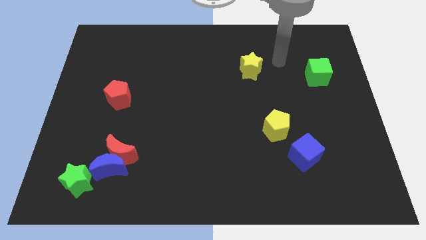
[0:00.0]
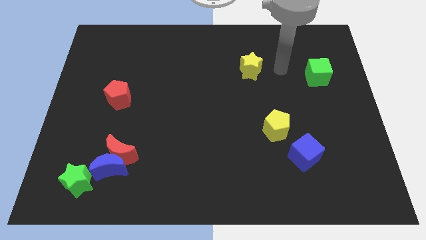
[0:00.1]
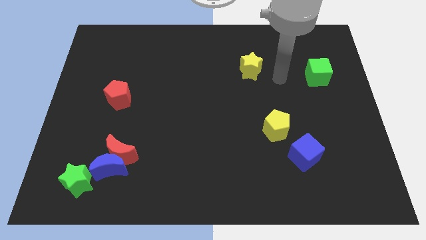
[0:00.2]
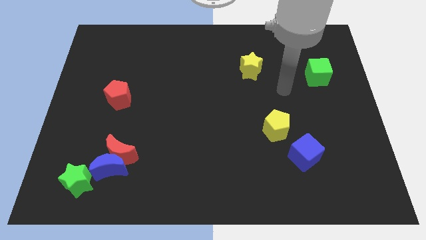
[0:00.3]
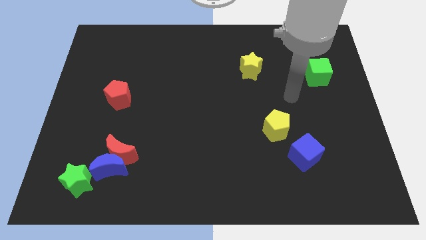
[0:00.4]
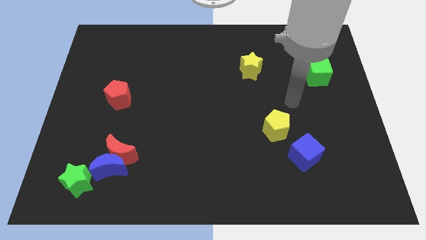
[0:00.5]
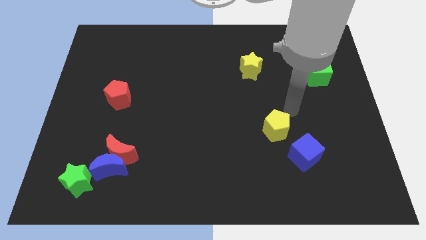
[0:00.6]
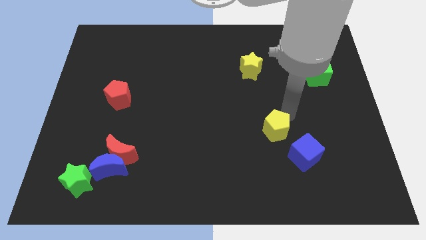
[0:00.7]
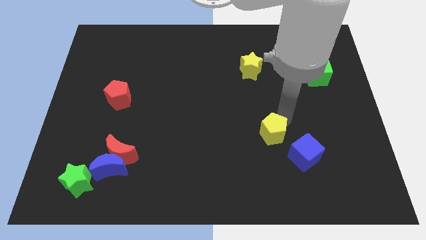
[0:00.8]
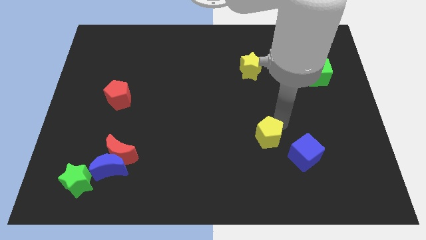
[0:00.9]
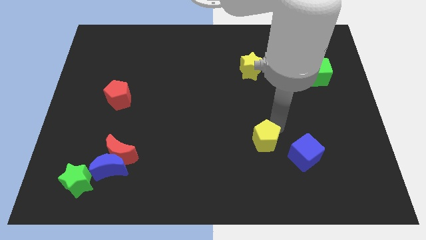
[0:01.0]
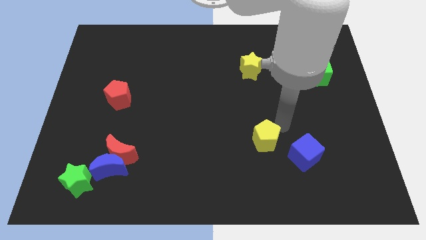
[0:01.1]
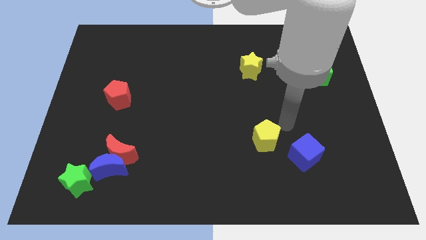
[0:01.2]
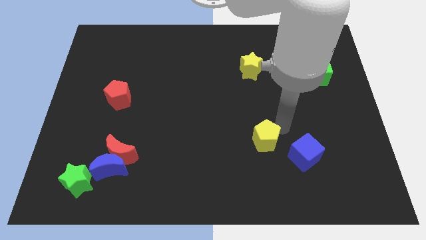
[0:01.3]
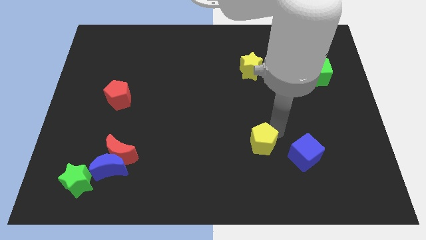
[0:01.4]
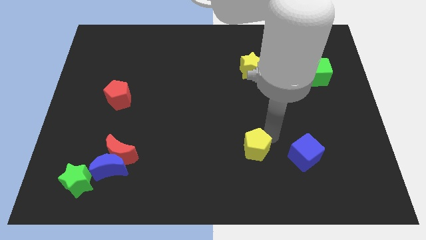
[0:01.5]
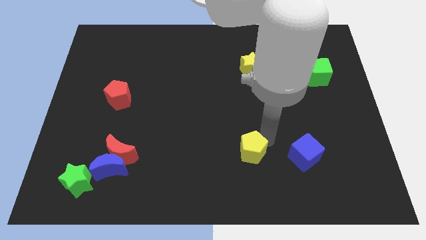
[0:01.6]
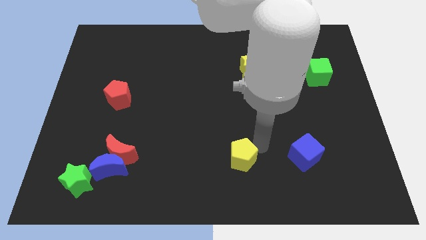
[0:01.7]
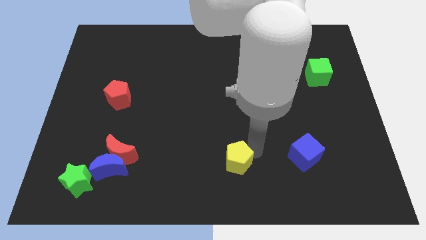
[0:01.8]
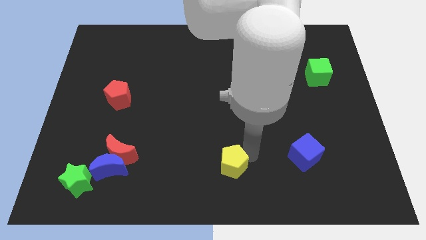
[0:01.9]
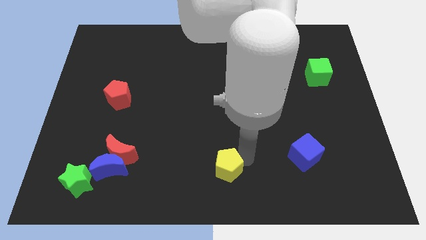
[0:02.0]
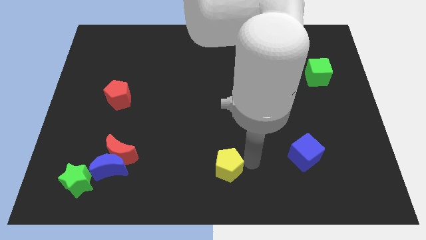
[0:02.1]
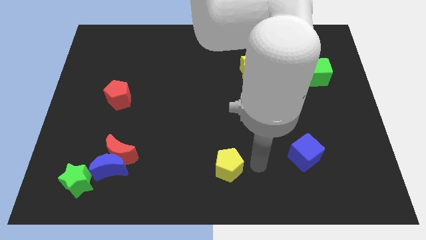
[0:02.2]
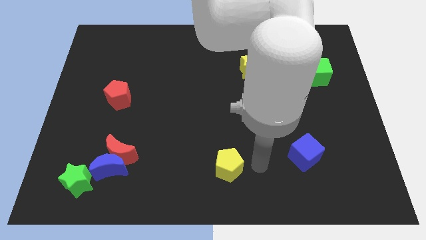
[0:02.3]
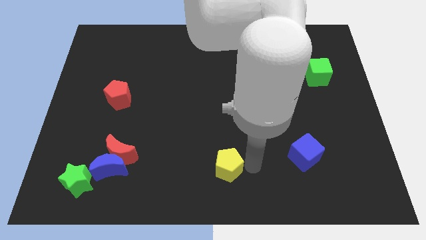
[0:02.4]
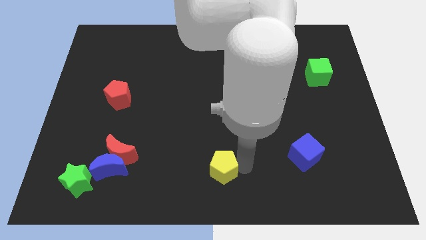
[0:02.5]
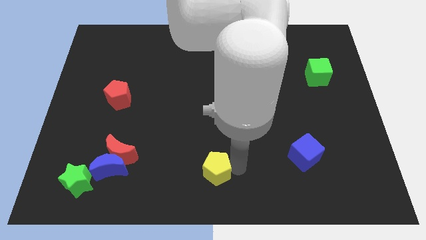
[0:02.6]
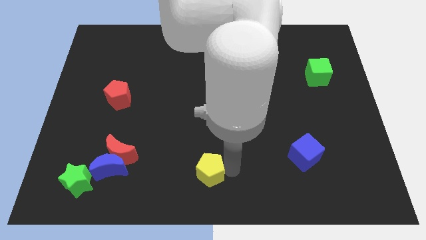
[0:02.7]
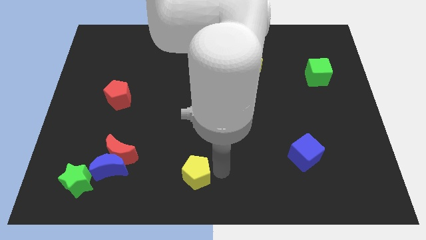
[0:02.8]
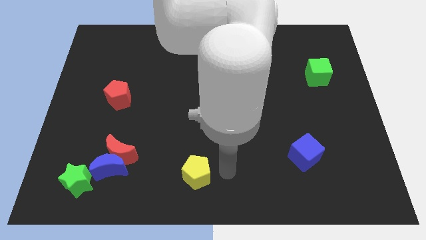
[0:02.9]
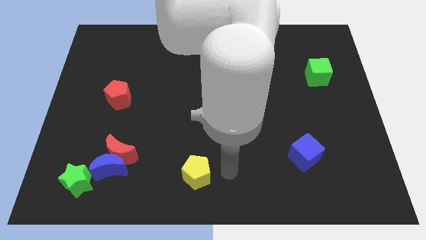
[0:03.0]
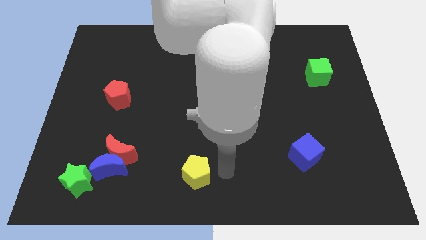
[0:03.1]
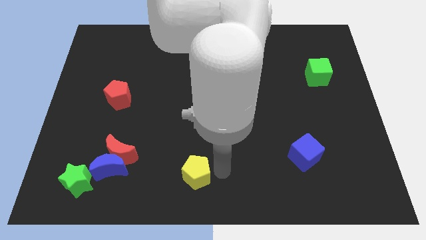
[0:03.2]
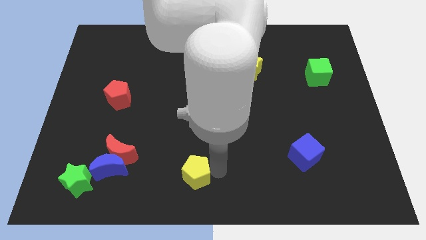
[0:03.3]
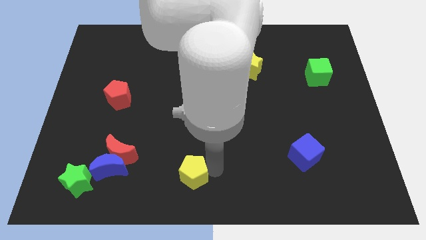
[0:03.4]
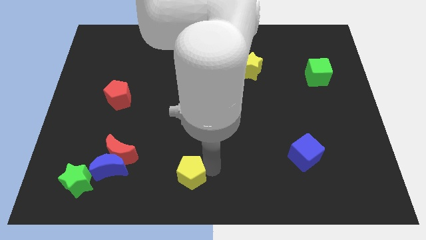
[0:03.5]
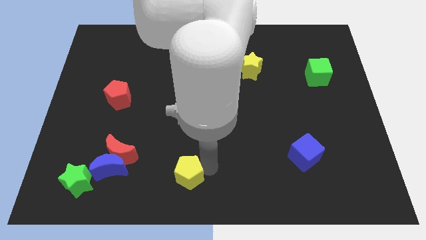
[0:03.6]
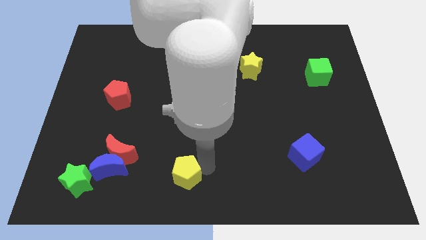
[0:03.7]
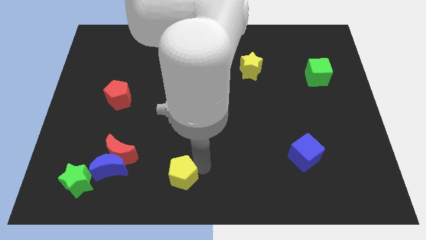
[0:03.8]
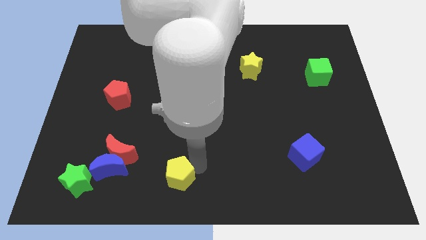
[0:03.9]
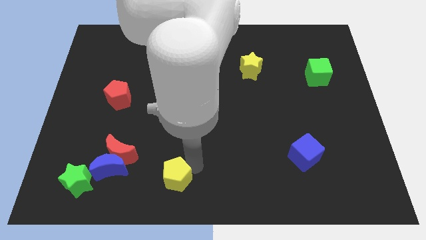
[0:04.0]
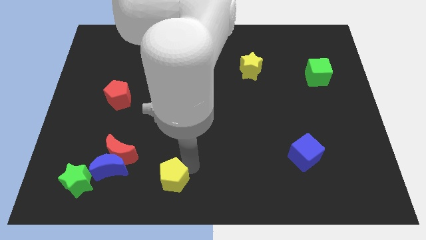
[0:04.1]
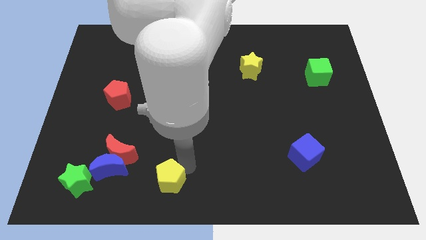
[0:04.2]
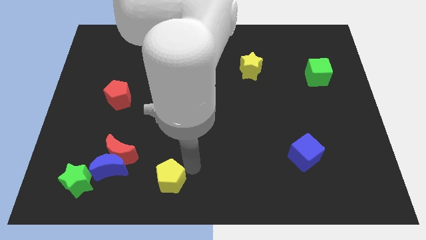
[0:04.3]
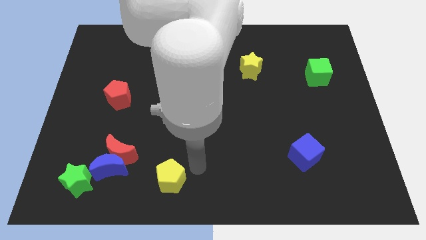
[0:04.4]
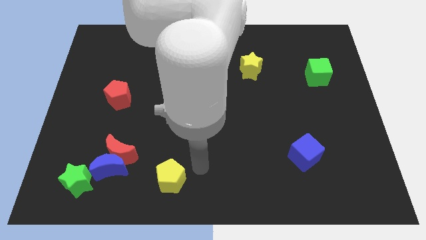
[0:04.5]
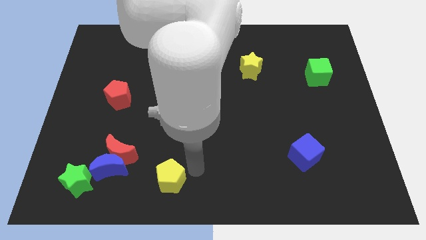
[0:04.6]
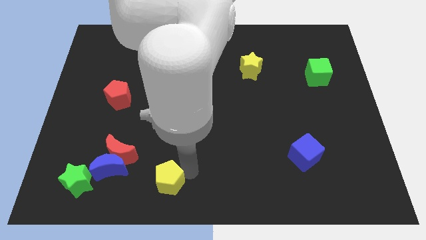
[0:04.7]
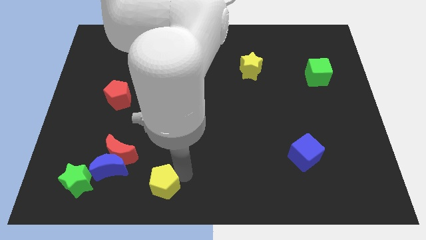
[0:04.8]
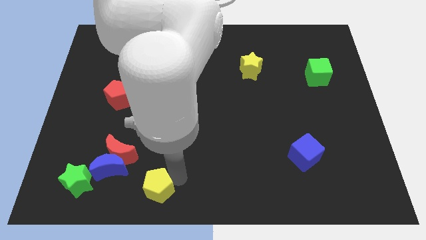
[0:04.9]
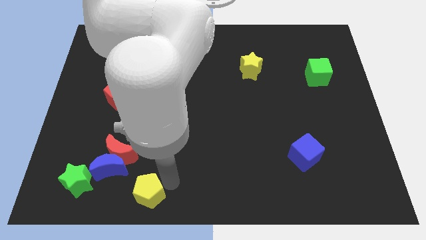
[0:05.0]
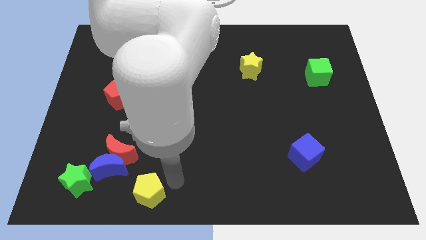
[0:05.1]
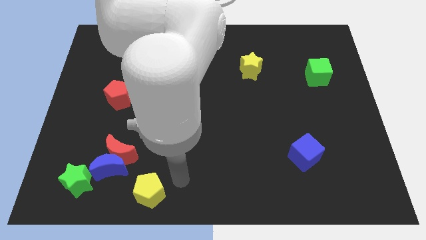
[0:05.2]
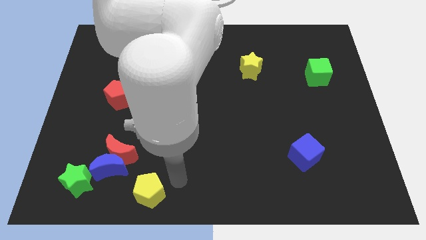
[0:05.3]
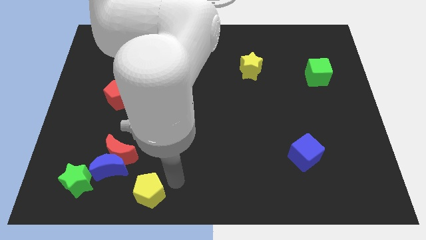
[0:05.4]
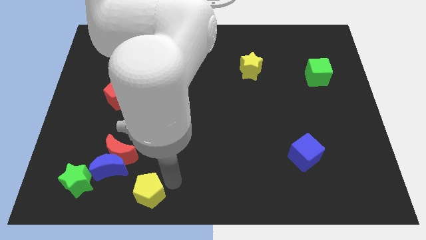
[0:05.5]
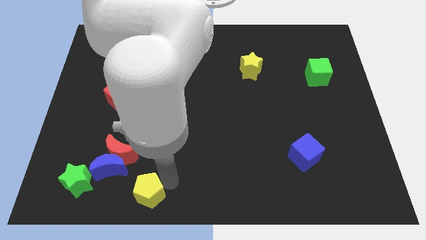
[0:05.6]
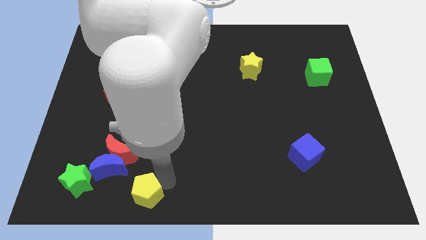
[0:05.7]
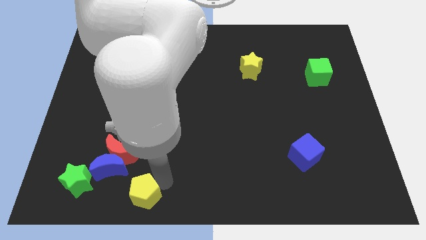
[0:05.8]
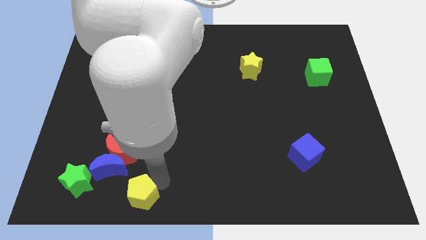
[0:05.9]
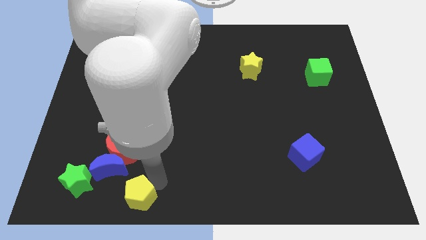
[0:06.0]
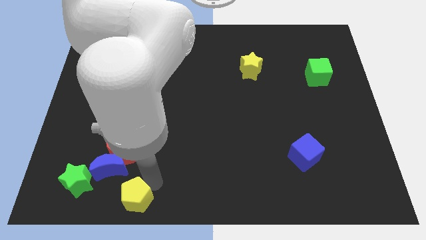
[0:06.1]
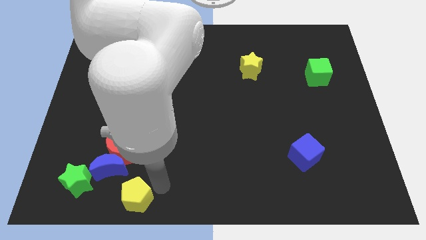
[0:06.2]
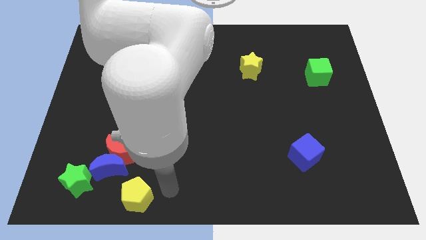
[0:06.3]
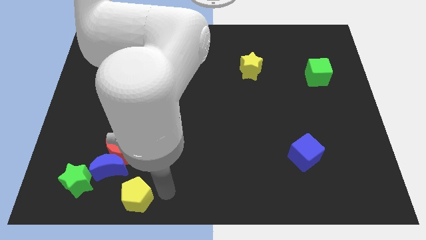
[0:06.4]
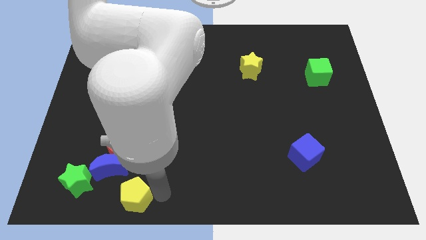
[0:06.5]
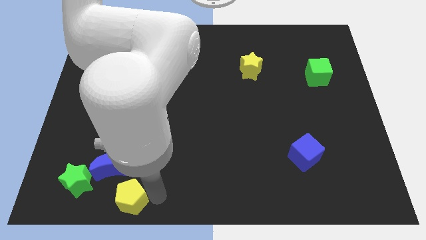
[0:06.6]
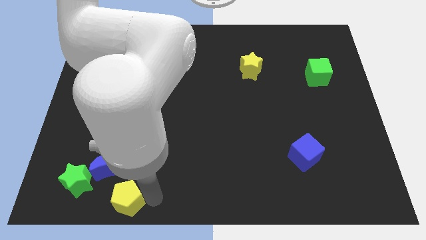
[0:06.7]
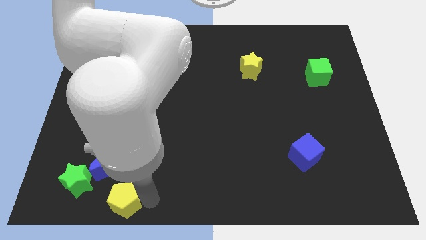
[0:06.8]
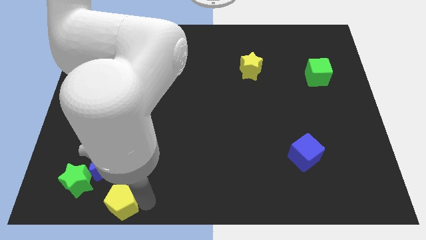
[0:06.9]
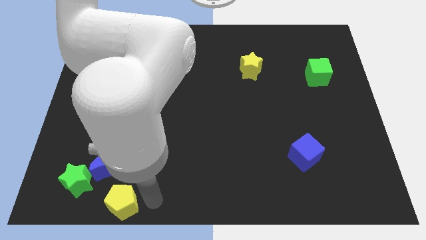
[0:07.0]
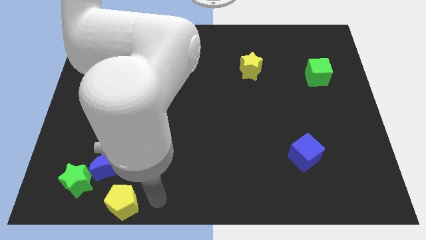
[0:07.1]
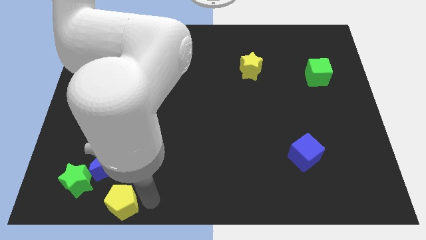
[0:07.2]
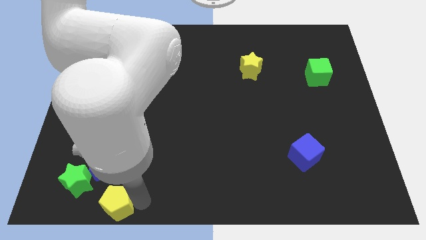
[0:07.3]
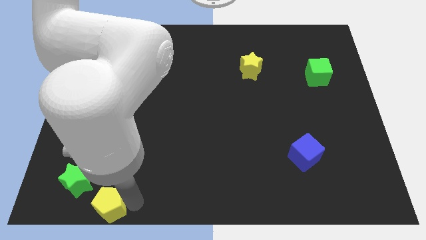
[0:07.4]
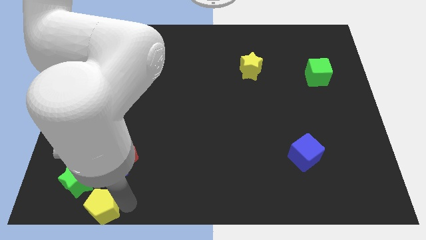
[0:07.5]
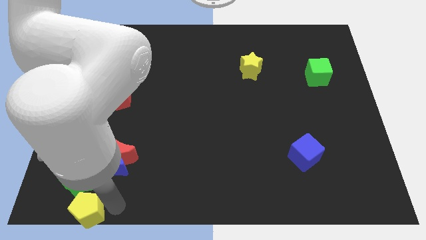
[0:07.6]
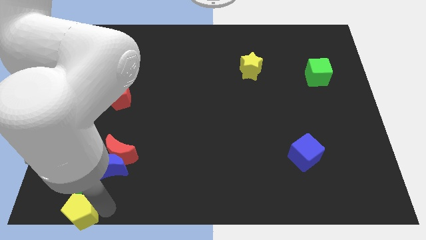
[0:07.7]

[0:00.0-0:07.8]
push the yellow pentagon to the bottom left
